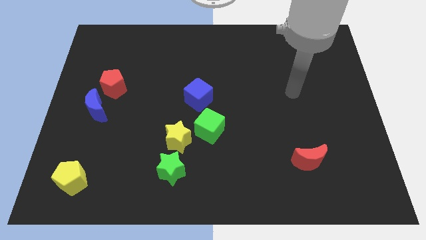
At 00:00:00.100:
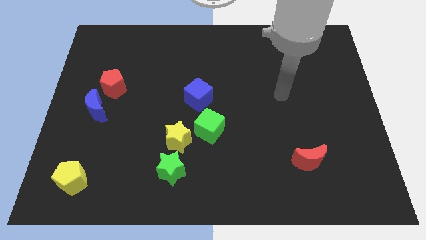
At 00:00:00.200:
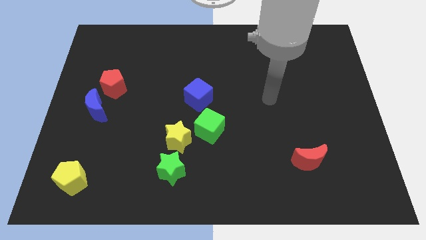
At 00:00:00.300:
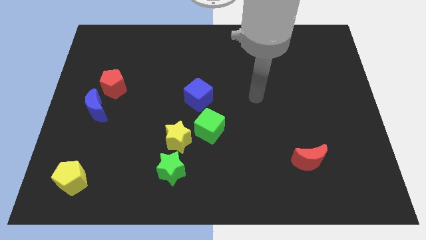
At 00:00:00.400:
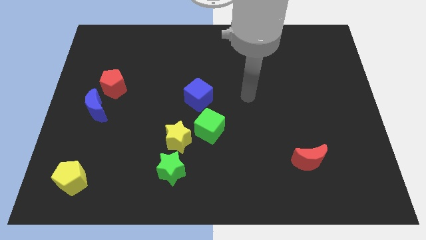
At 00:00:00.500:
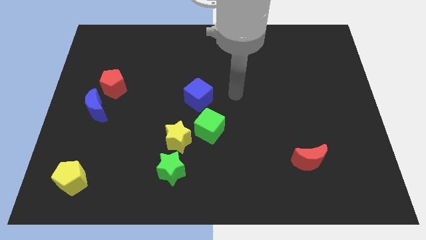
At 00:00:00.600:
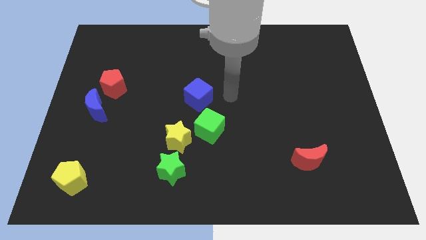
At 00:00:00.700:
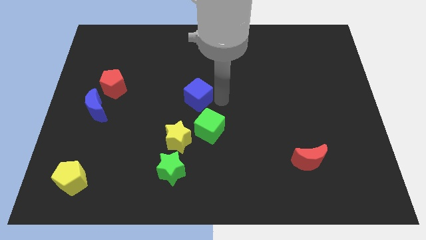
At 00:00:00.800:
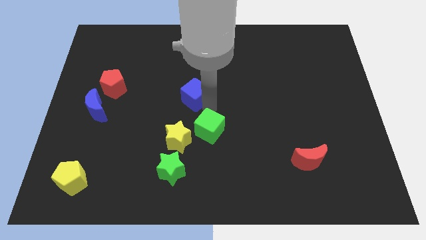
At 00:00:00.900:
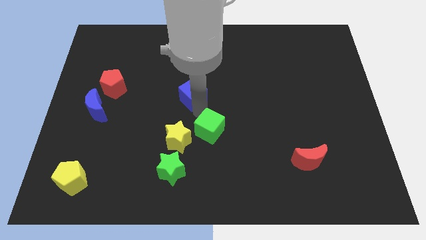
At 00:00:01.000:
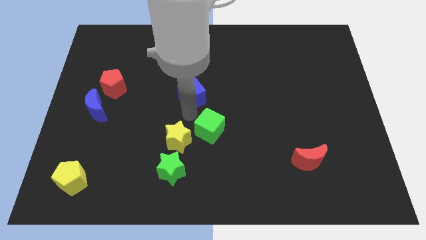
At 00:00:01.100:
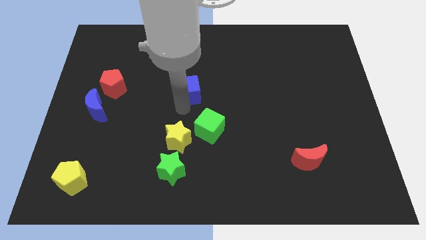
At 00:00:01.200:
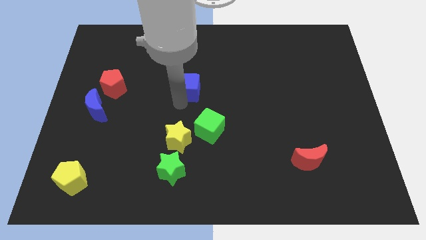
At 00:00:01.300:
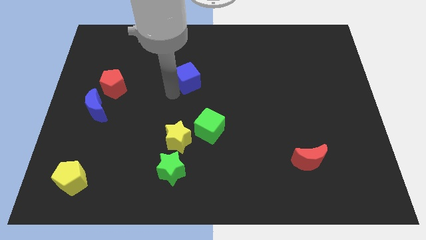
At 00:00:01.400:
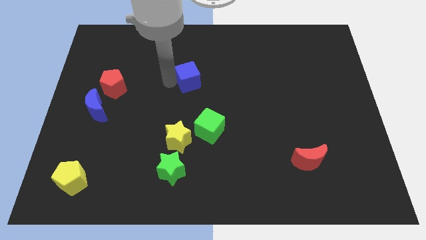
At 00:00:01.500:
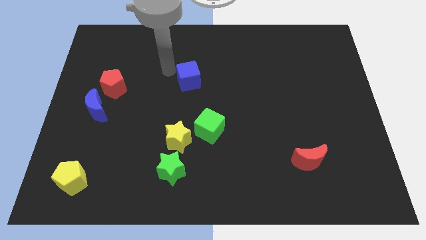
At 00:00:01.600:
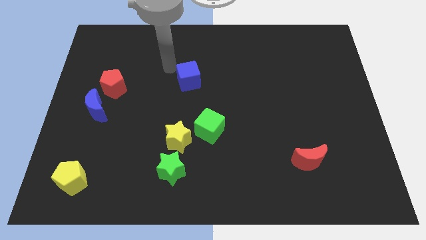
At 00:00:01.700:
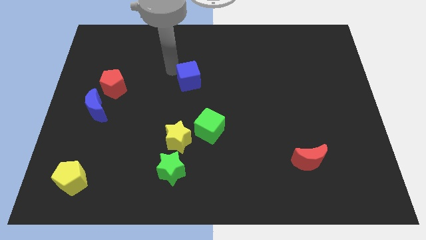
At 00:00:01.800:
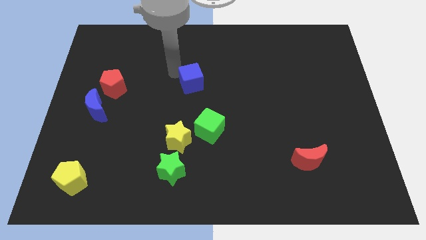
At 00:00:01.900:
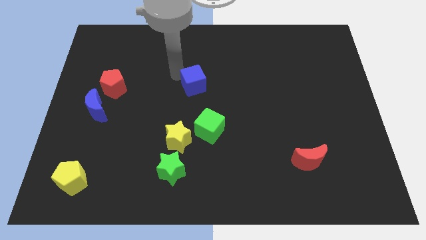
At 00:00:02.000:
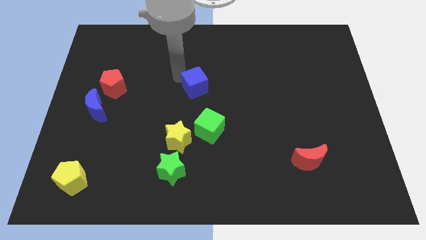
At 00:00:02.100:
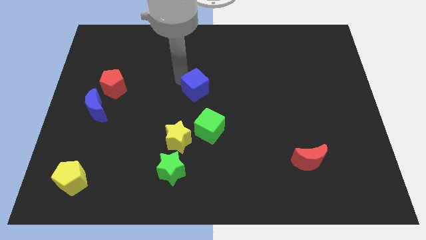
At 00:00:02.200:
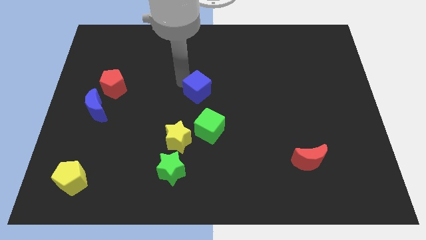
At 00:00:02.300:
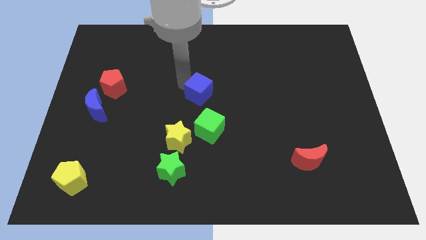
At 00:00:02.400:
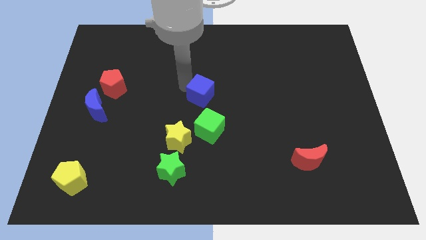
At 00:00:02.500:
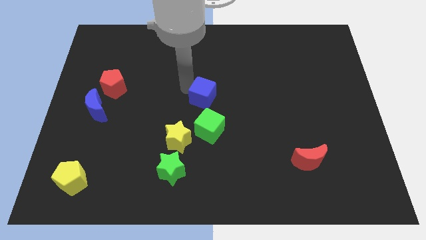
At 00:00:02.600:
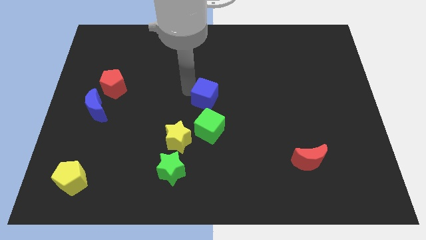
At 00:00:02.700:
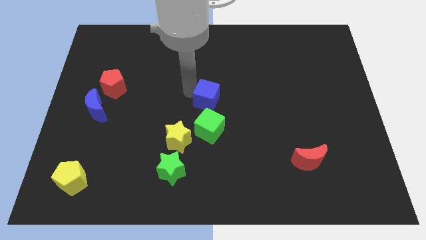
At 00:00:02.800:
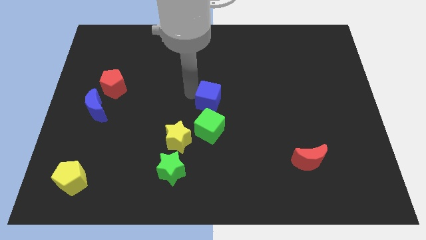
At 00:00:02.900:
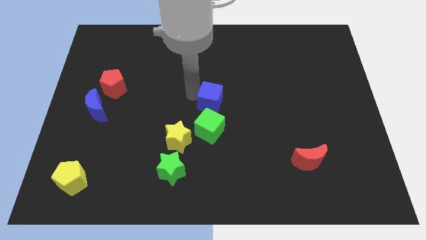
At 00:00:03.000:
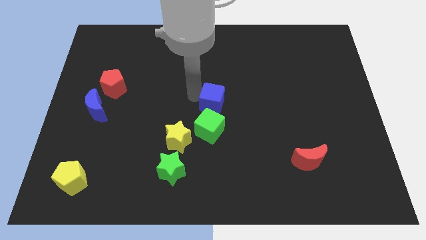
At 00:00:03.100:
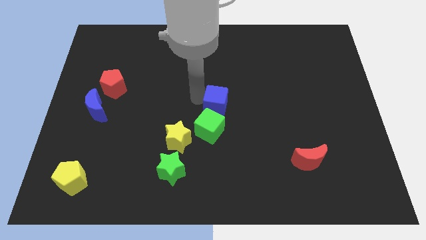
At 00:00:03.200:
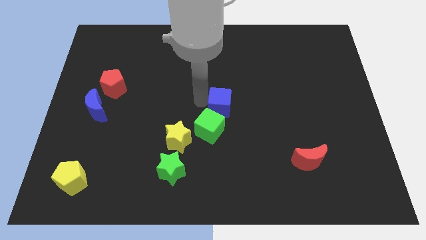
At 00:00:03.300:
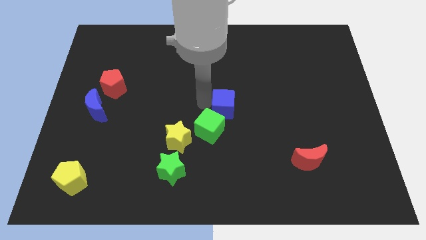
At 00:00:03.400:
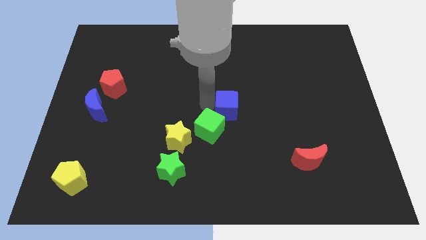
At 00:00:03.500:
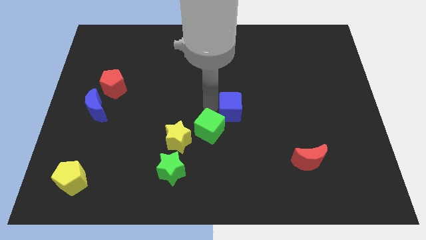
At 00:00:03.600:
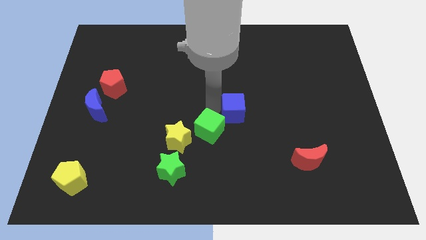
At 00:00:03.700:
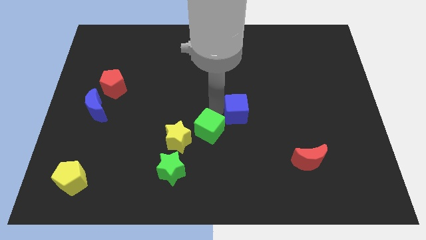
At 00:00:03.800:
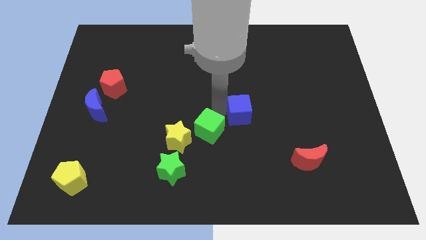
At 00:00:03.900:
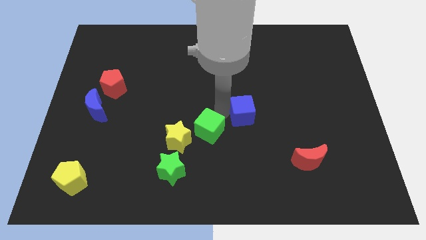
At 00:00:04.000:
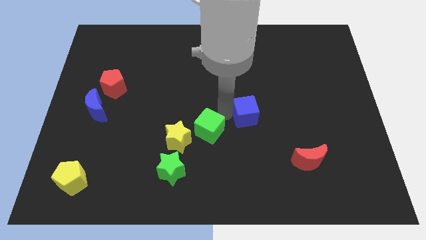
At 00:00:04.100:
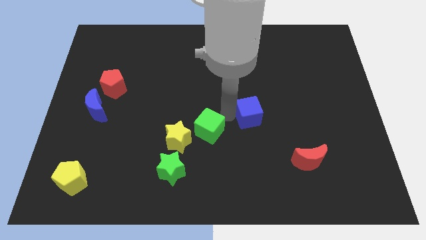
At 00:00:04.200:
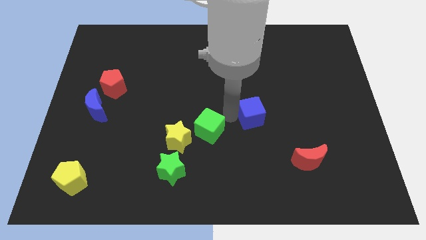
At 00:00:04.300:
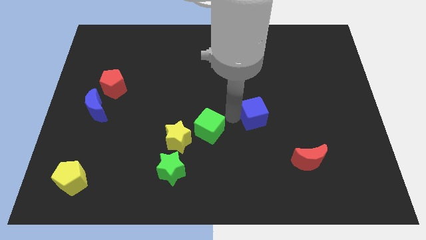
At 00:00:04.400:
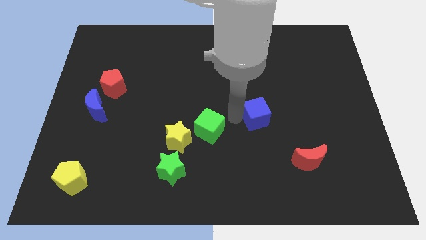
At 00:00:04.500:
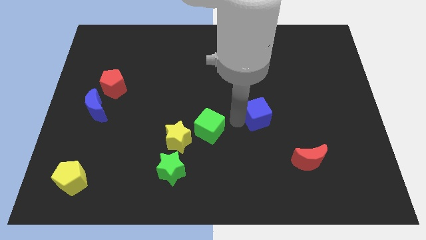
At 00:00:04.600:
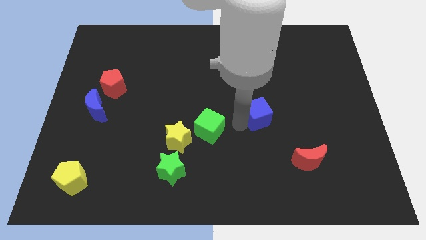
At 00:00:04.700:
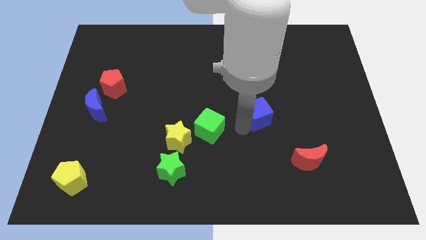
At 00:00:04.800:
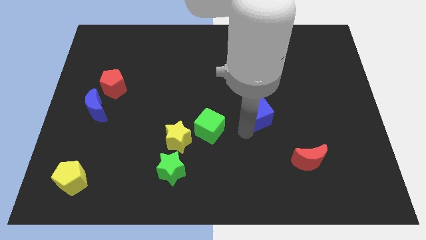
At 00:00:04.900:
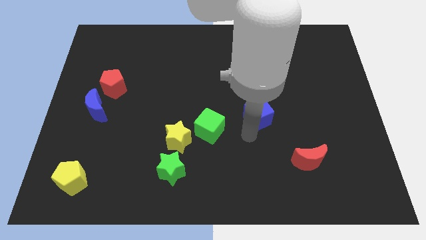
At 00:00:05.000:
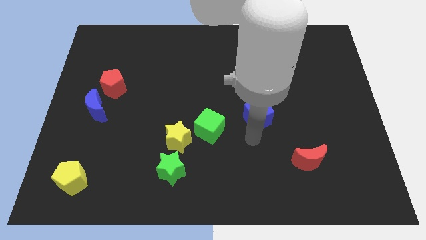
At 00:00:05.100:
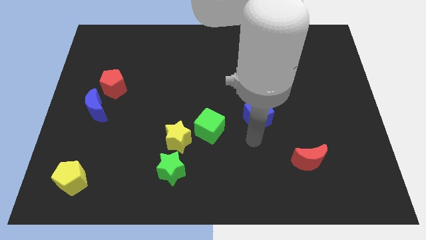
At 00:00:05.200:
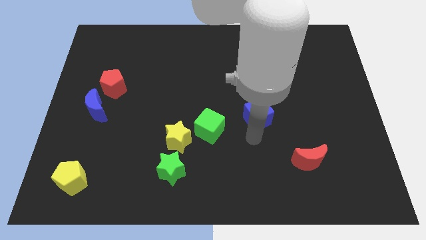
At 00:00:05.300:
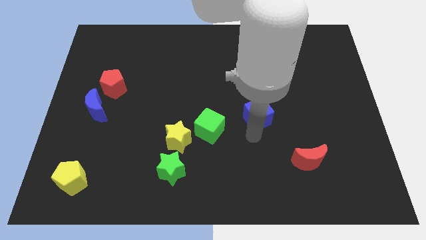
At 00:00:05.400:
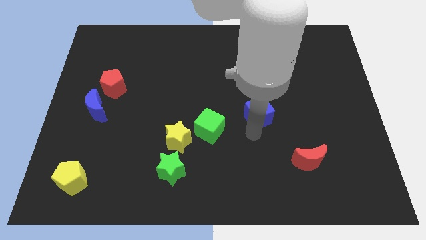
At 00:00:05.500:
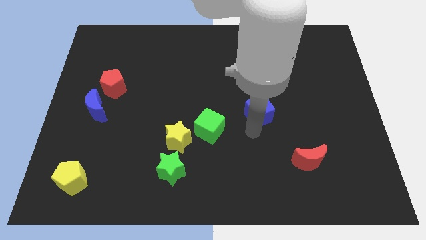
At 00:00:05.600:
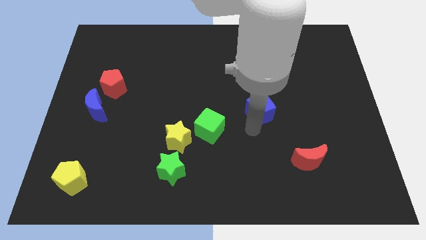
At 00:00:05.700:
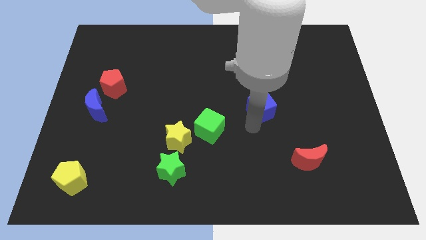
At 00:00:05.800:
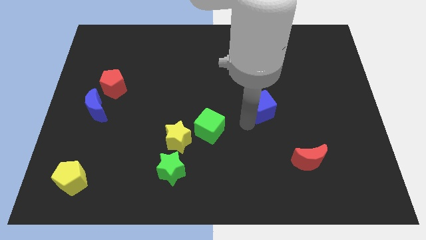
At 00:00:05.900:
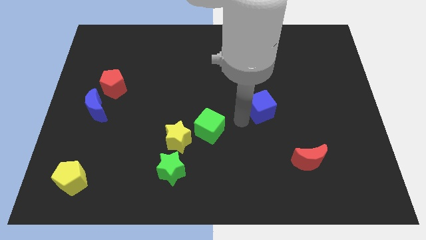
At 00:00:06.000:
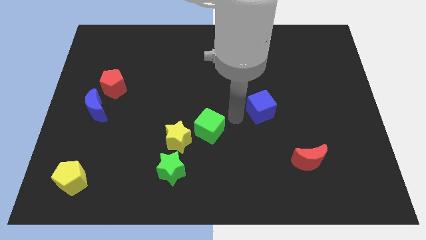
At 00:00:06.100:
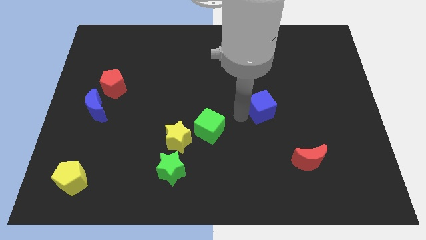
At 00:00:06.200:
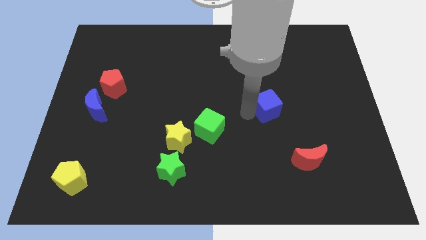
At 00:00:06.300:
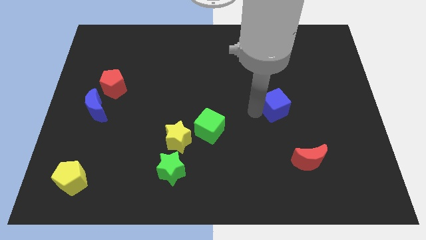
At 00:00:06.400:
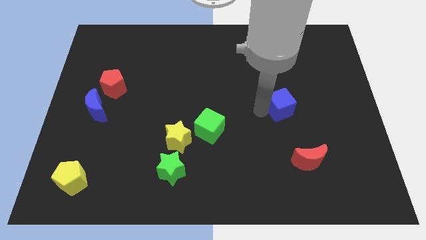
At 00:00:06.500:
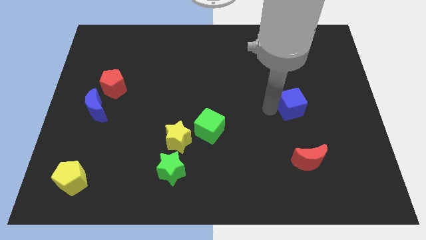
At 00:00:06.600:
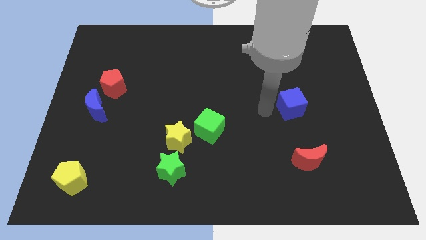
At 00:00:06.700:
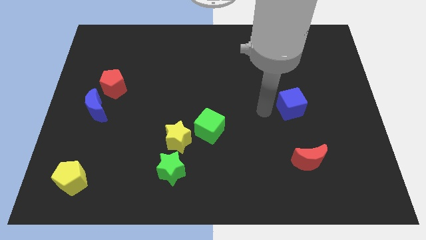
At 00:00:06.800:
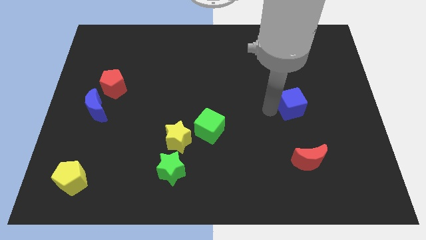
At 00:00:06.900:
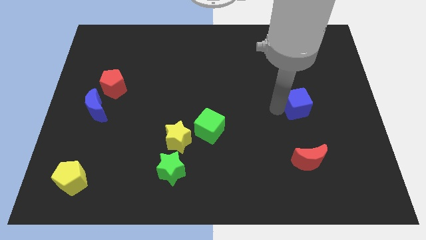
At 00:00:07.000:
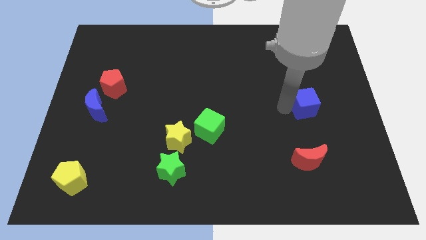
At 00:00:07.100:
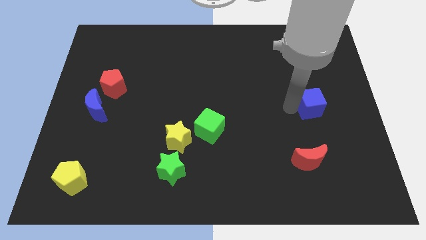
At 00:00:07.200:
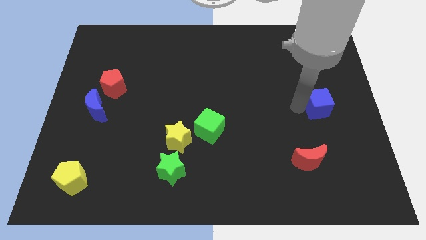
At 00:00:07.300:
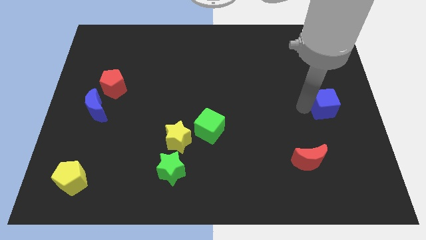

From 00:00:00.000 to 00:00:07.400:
move the blue cube to the right side of the board
